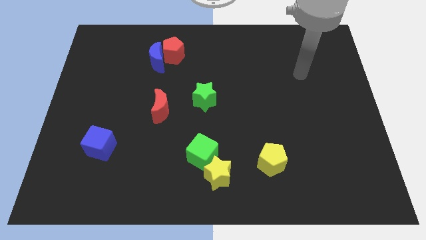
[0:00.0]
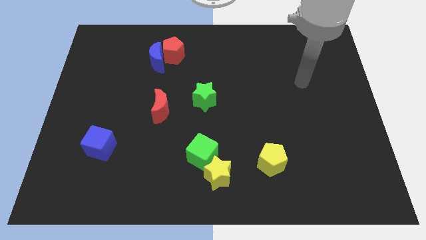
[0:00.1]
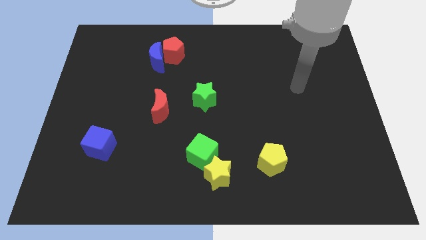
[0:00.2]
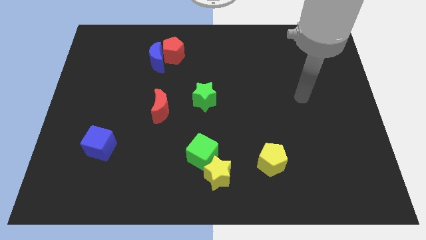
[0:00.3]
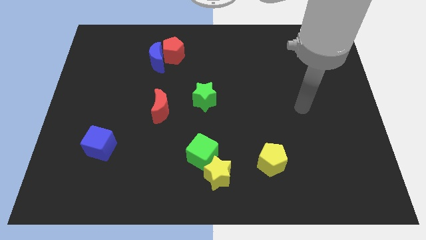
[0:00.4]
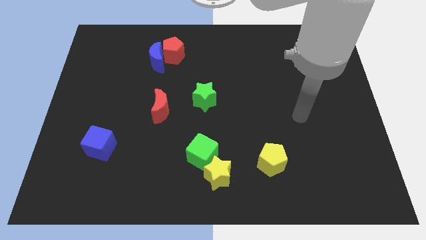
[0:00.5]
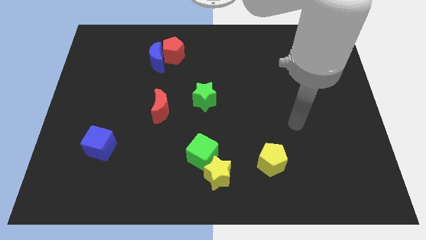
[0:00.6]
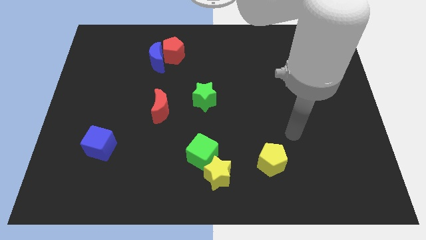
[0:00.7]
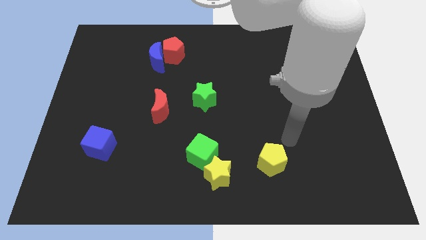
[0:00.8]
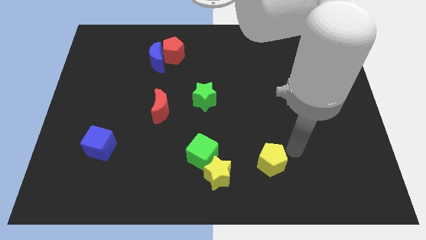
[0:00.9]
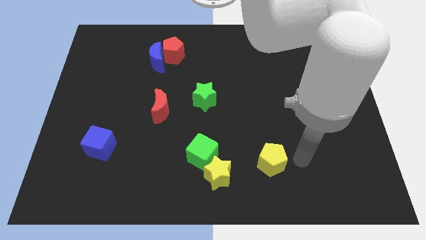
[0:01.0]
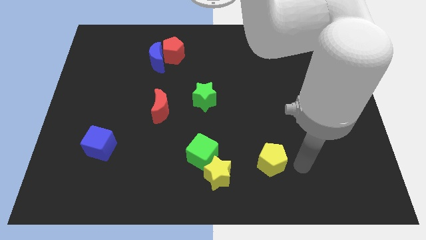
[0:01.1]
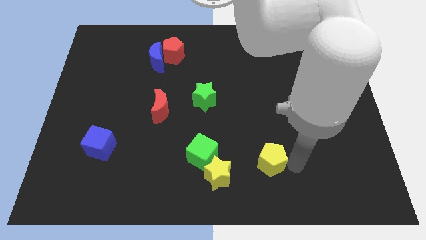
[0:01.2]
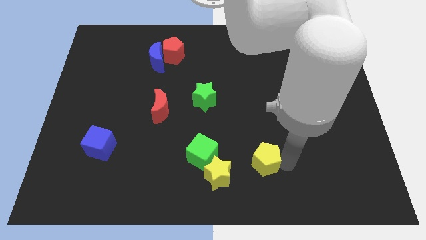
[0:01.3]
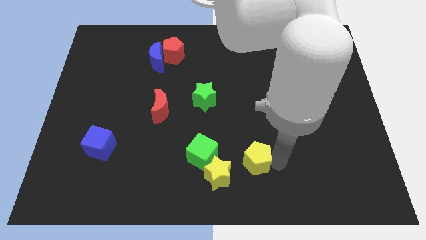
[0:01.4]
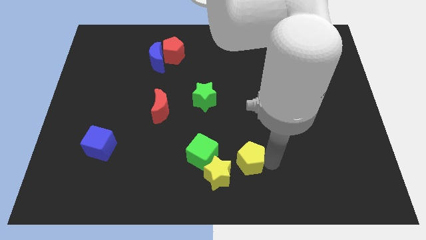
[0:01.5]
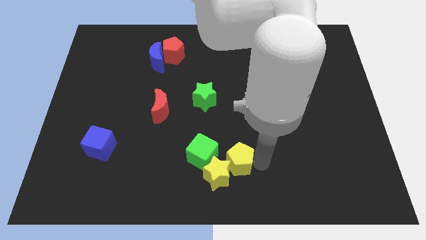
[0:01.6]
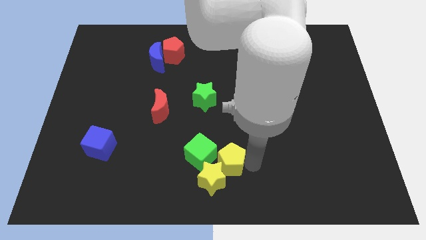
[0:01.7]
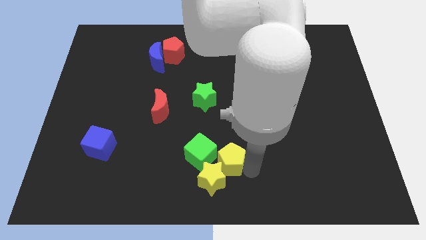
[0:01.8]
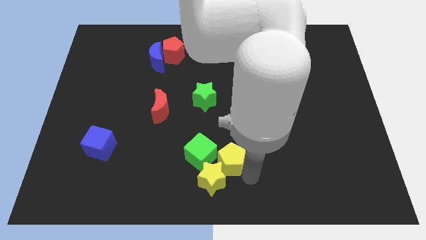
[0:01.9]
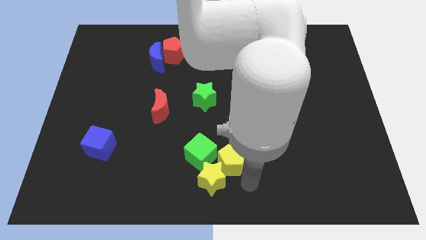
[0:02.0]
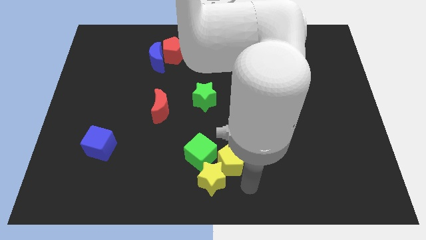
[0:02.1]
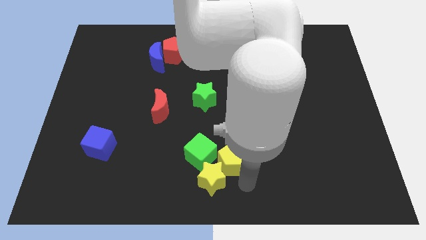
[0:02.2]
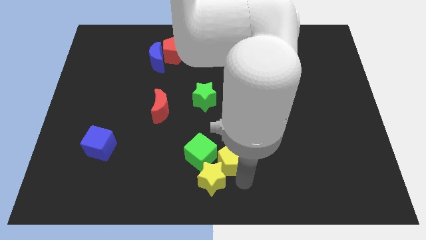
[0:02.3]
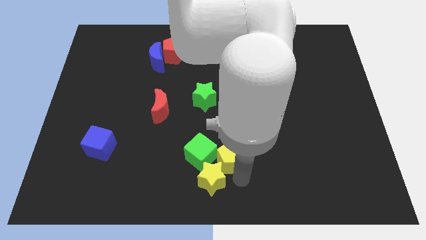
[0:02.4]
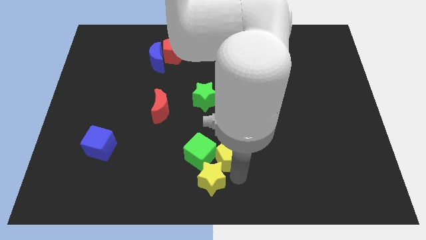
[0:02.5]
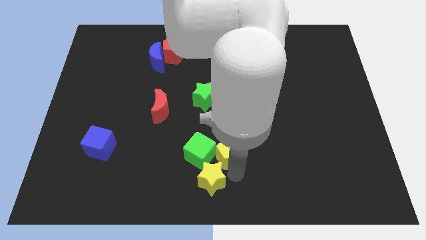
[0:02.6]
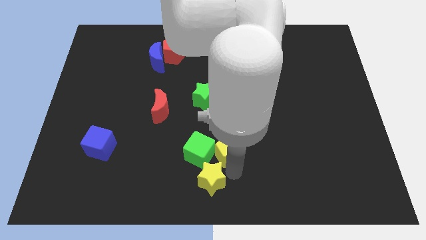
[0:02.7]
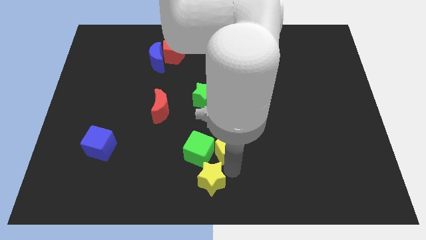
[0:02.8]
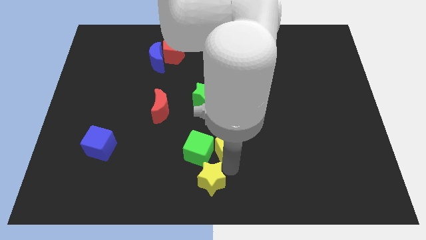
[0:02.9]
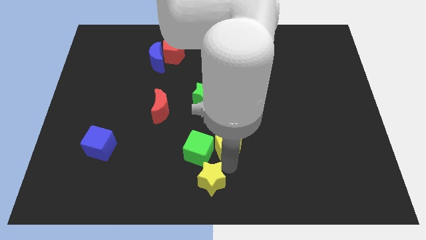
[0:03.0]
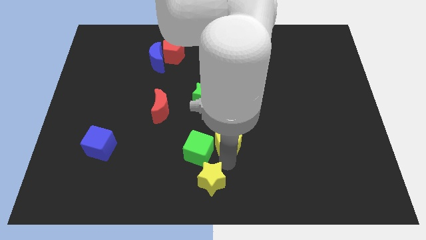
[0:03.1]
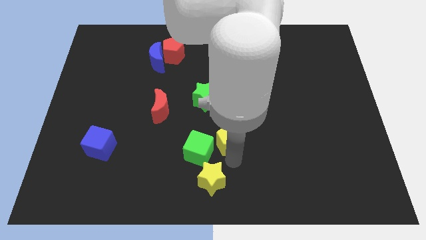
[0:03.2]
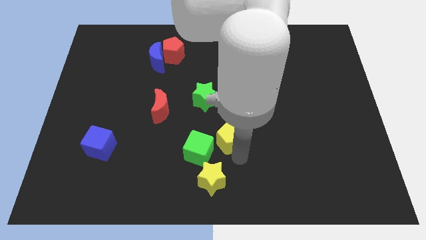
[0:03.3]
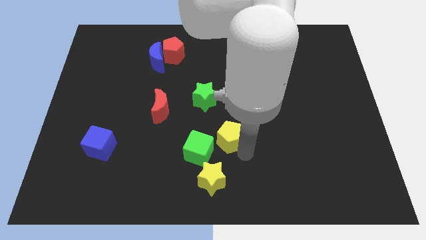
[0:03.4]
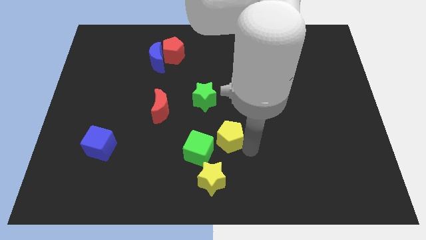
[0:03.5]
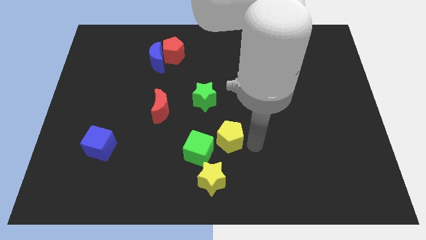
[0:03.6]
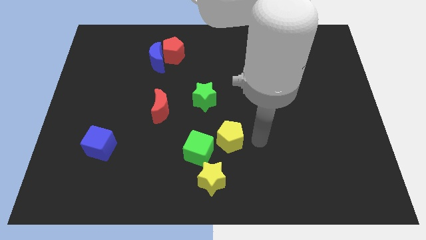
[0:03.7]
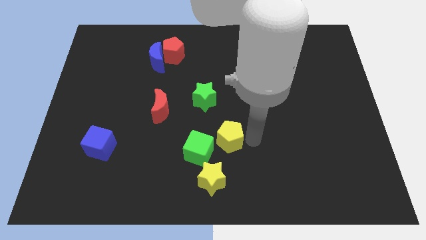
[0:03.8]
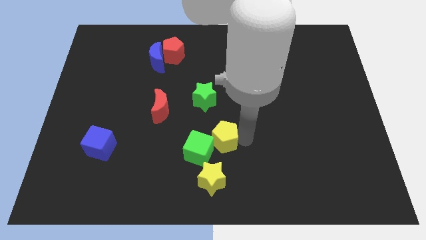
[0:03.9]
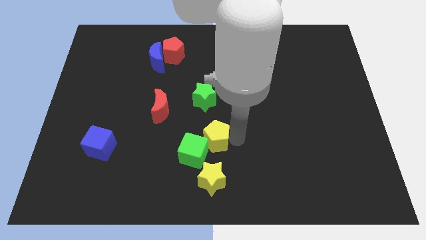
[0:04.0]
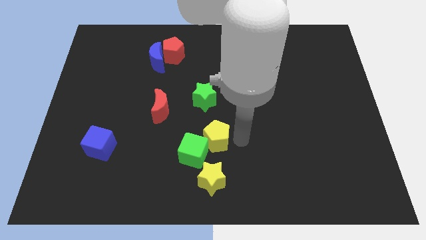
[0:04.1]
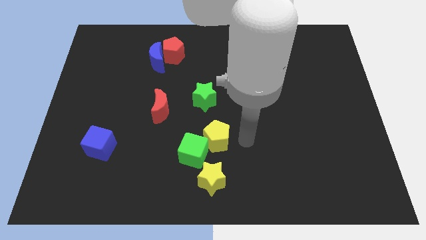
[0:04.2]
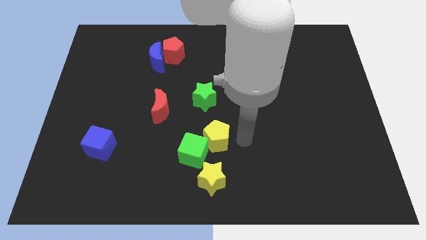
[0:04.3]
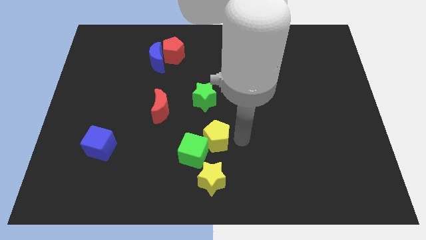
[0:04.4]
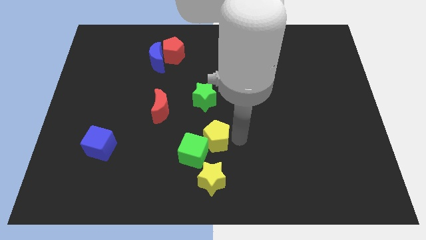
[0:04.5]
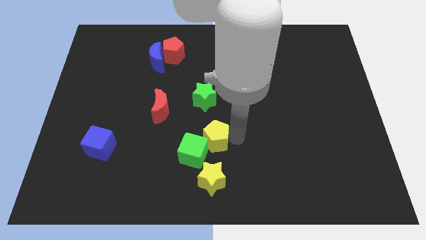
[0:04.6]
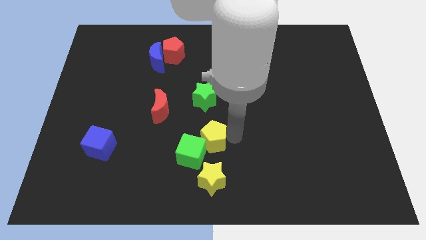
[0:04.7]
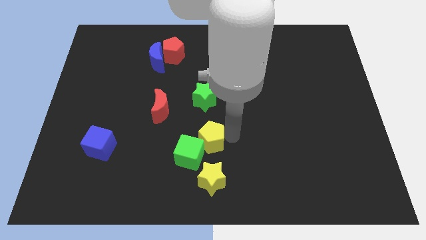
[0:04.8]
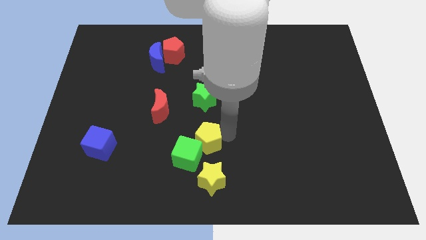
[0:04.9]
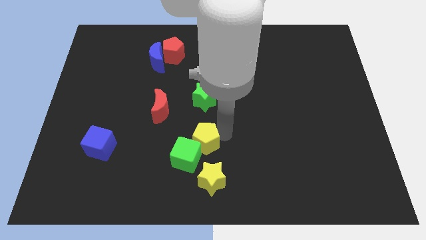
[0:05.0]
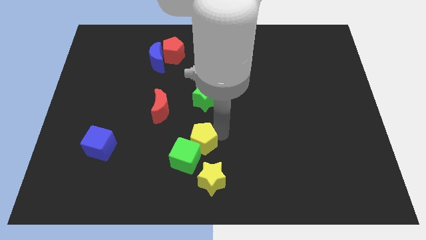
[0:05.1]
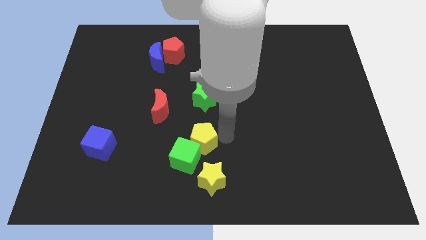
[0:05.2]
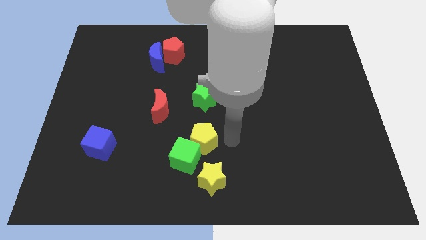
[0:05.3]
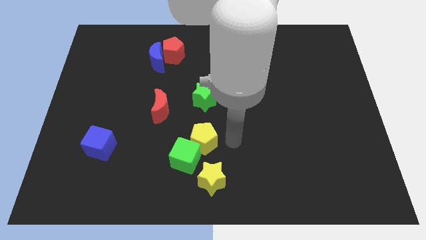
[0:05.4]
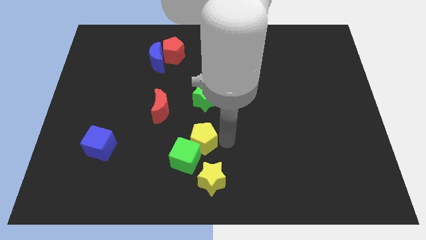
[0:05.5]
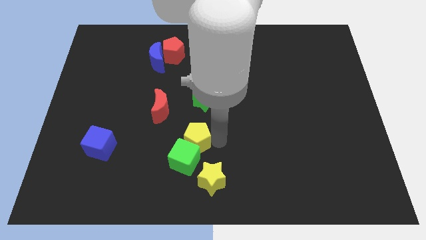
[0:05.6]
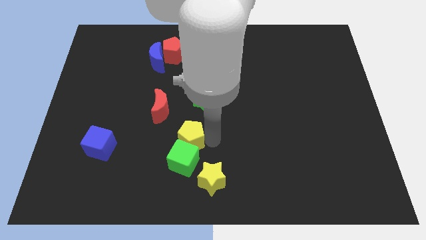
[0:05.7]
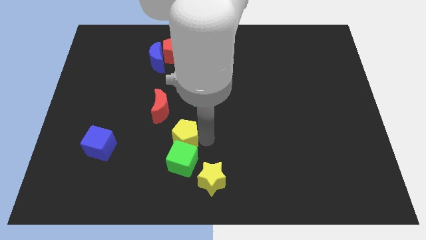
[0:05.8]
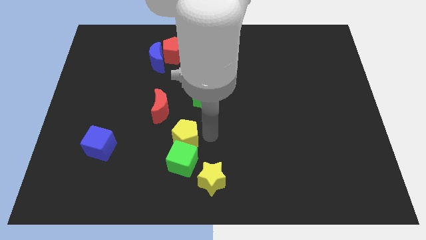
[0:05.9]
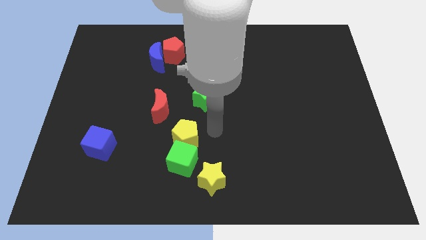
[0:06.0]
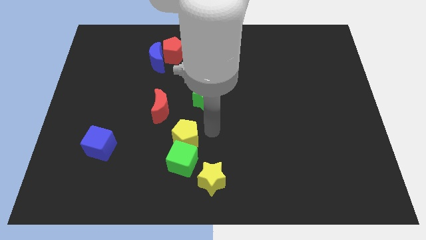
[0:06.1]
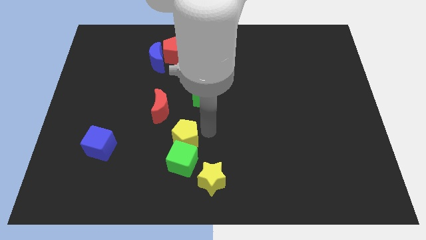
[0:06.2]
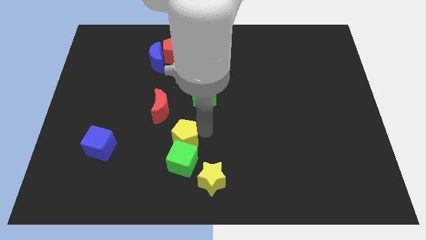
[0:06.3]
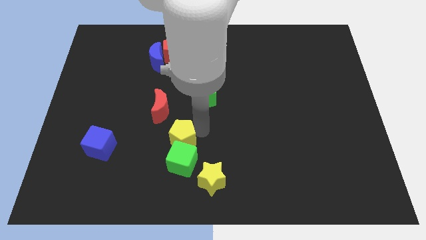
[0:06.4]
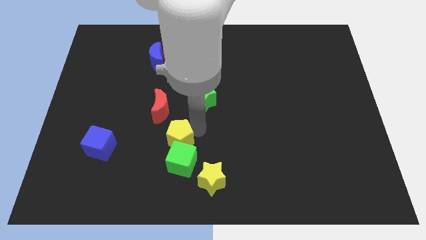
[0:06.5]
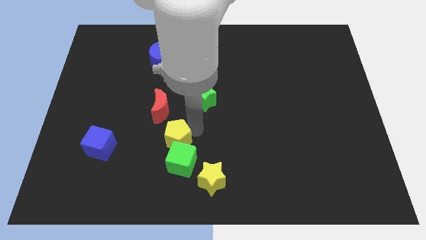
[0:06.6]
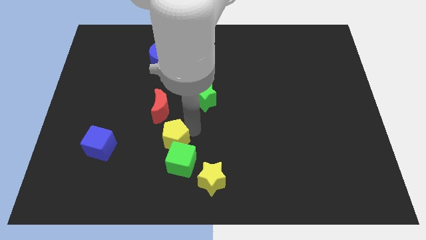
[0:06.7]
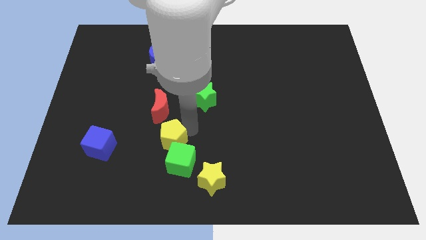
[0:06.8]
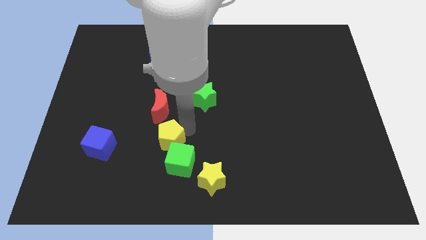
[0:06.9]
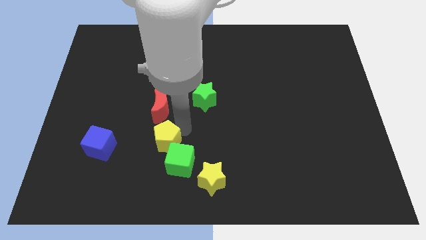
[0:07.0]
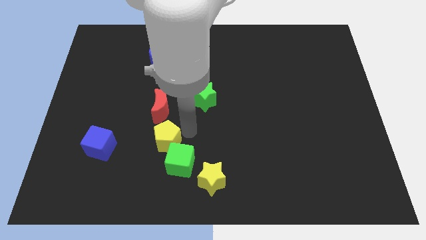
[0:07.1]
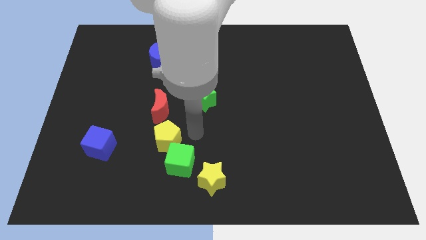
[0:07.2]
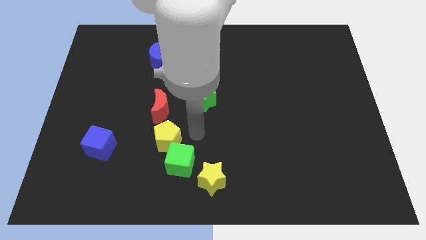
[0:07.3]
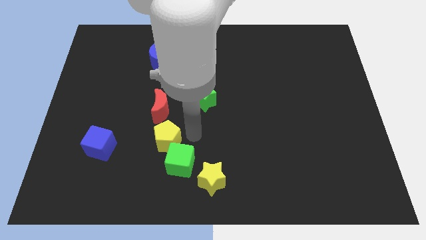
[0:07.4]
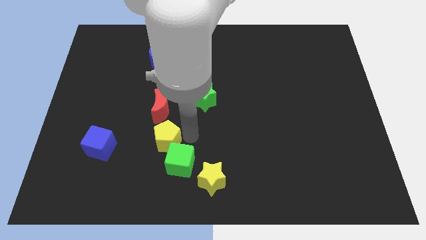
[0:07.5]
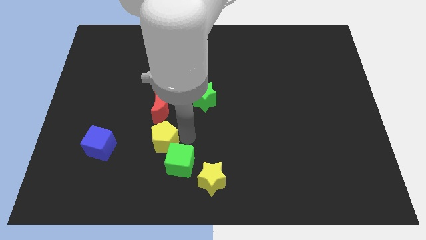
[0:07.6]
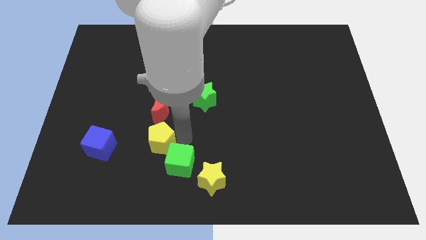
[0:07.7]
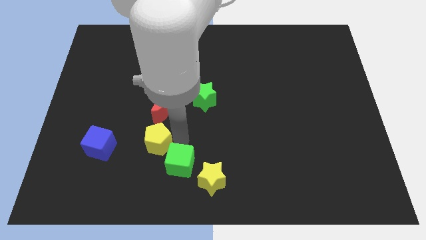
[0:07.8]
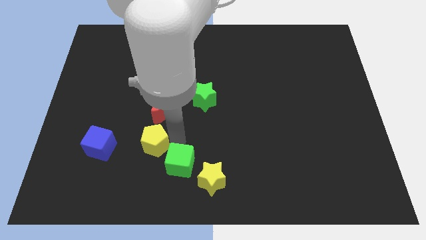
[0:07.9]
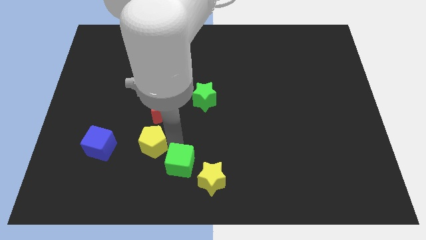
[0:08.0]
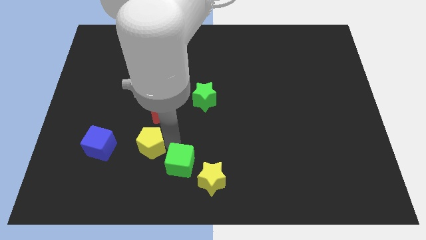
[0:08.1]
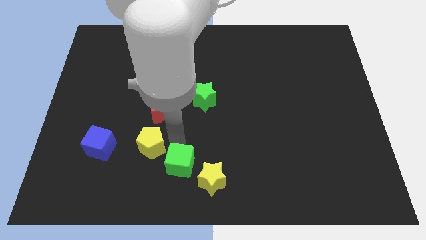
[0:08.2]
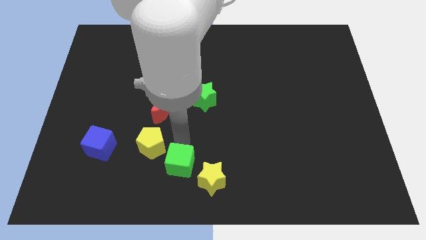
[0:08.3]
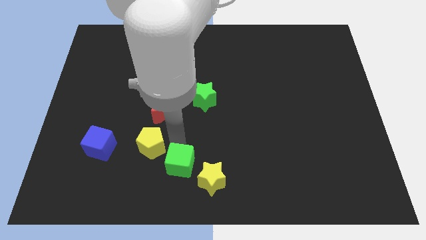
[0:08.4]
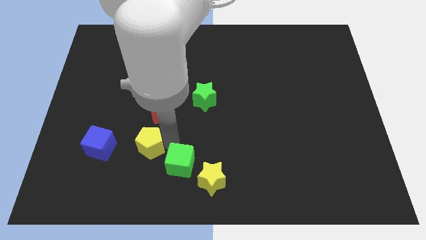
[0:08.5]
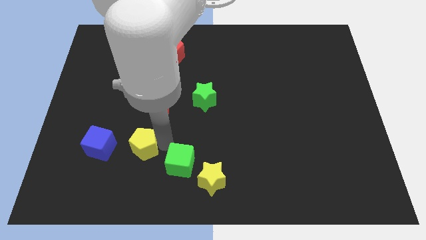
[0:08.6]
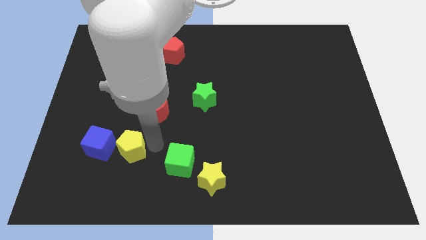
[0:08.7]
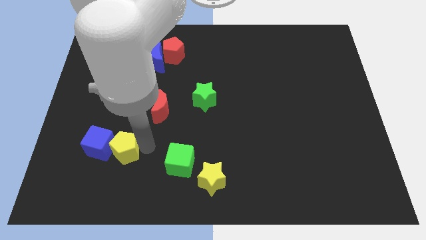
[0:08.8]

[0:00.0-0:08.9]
move the yellow pentagon to the blue cube
